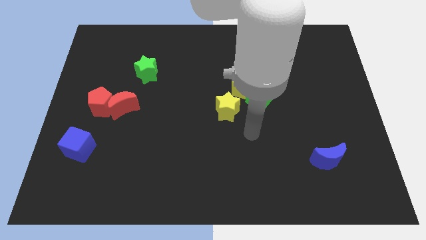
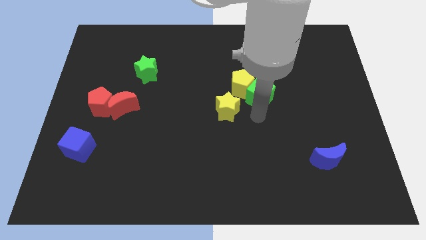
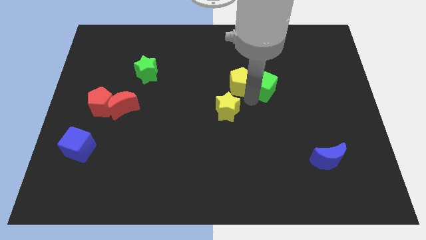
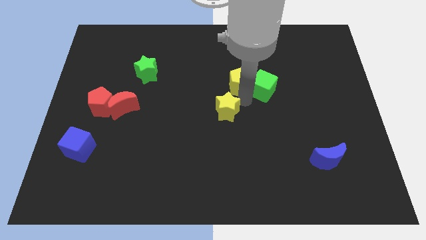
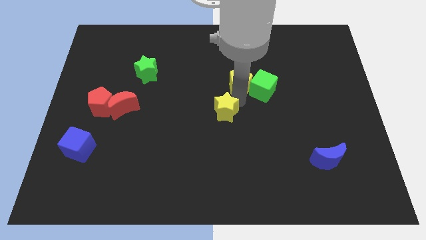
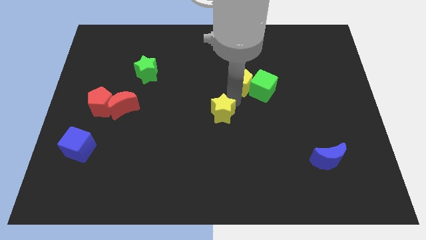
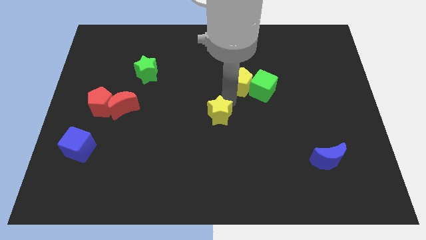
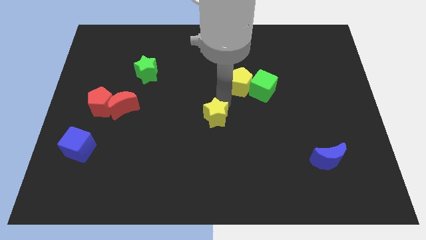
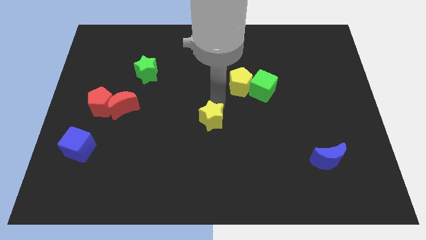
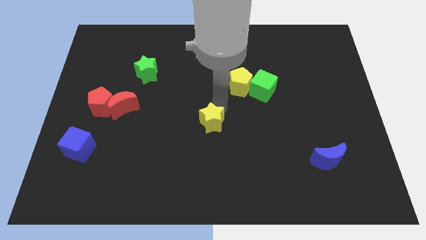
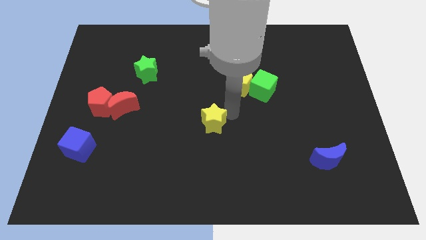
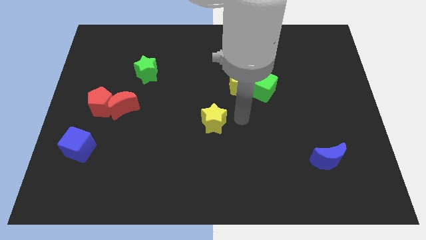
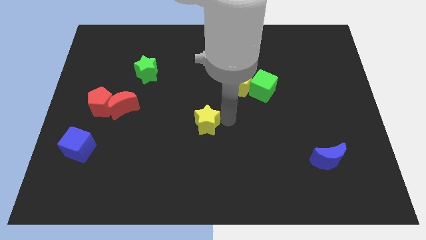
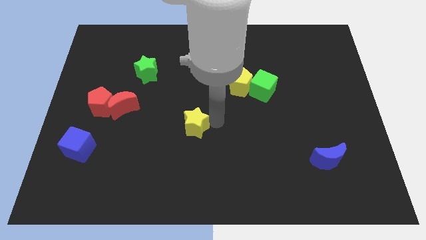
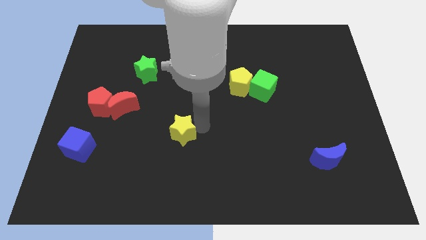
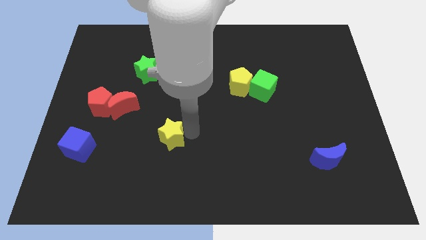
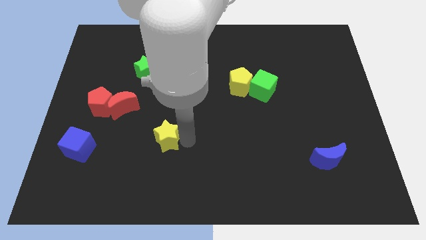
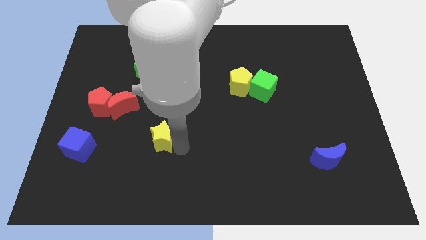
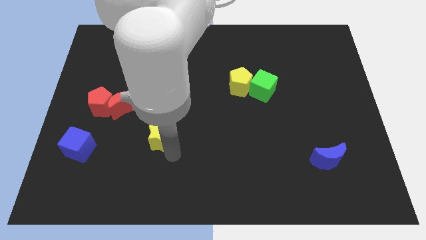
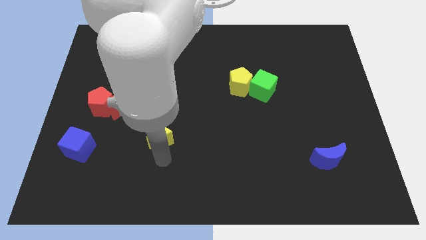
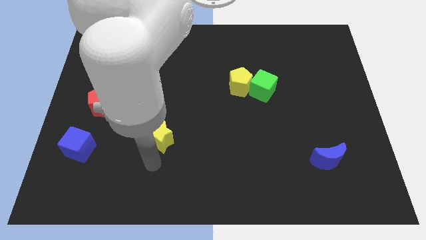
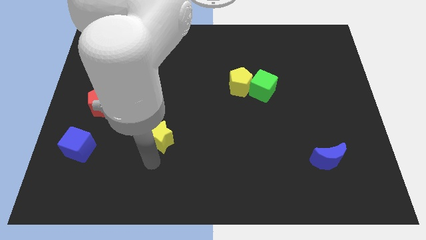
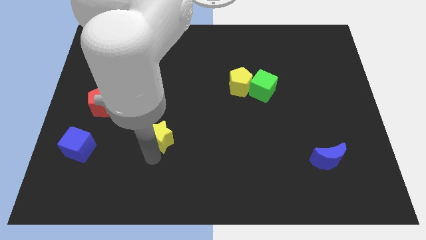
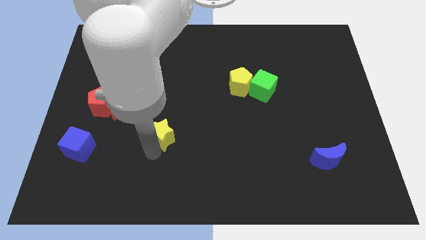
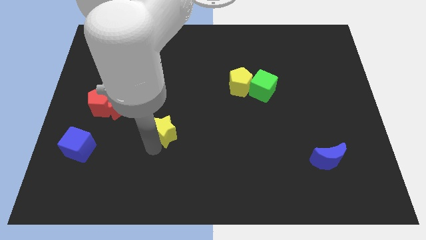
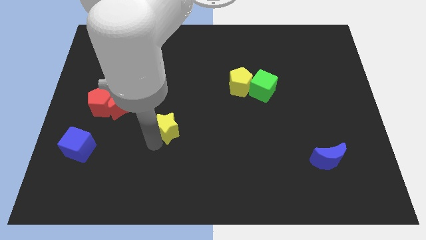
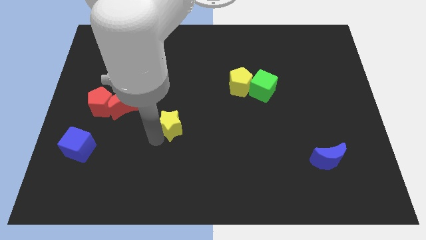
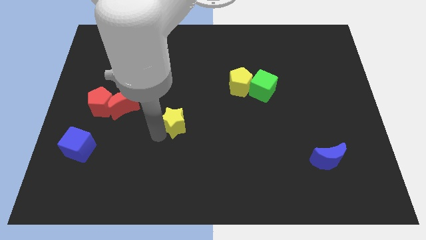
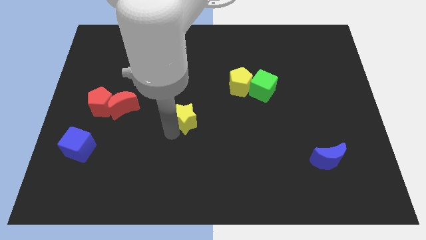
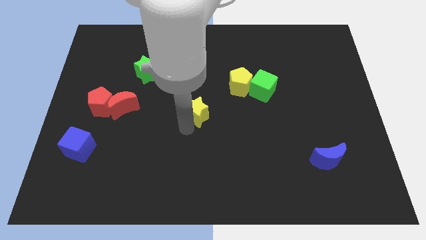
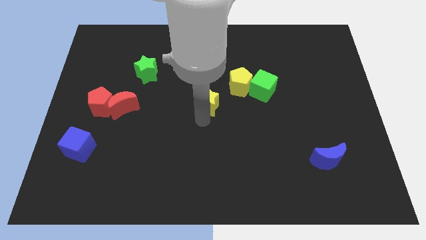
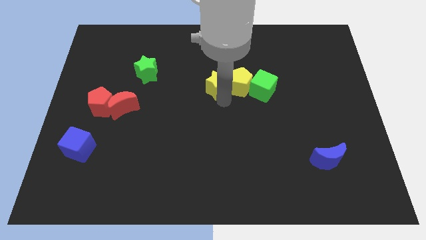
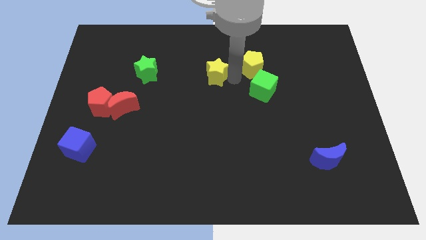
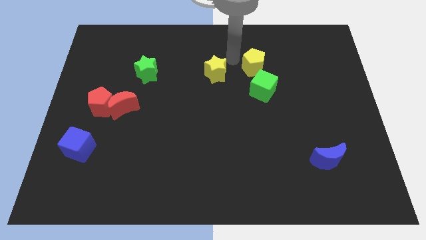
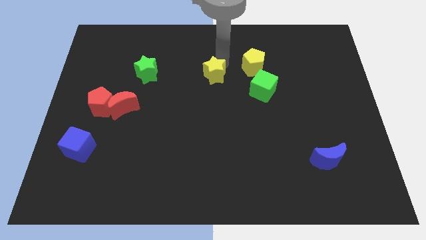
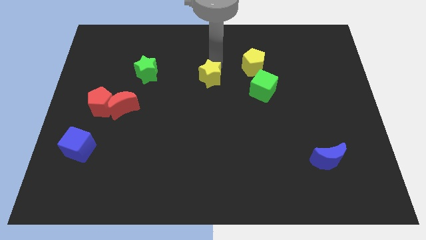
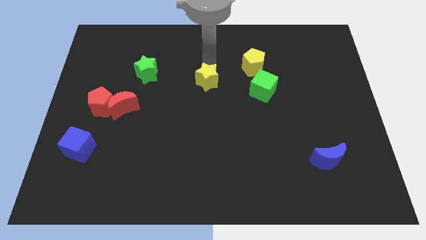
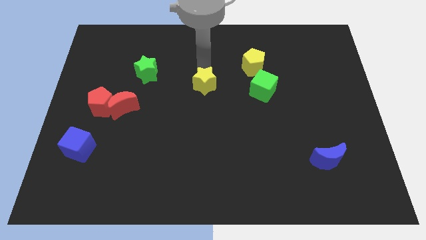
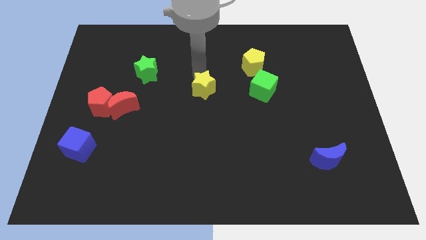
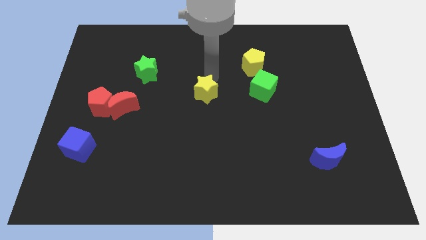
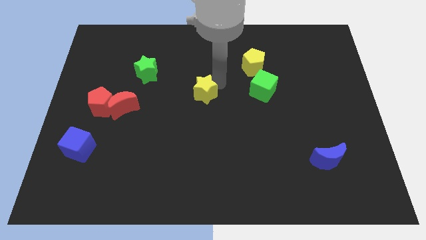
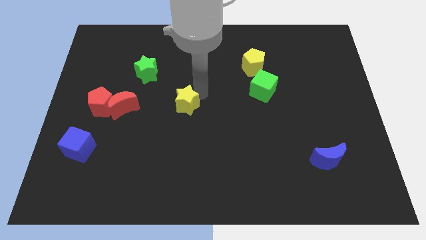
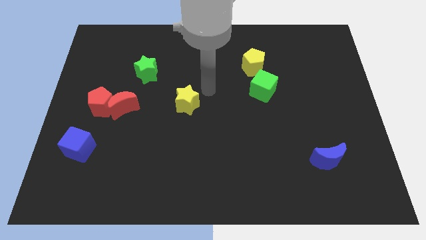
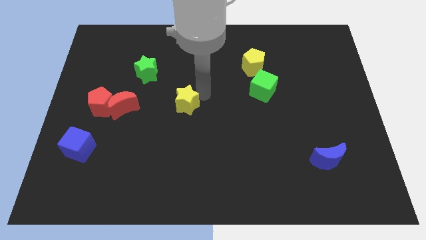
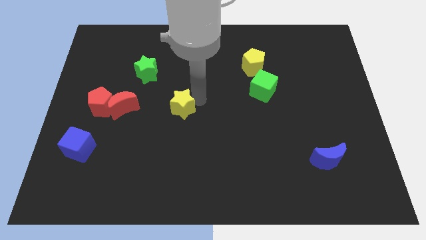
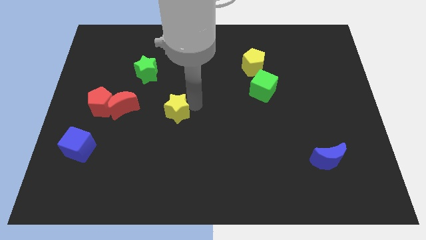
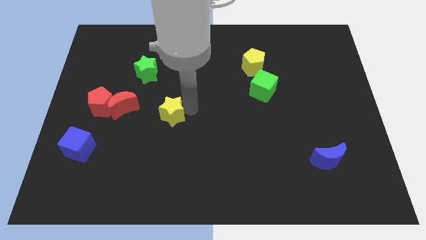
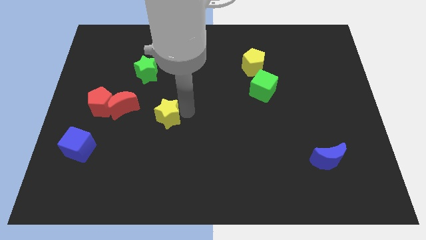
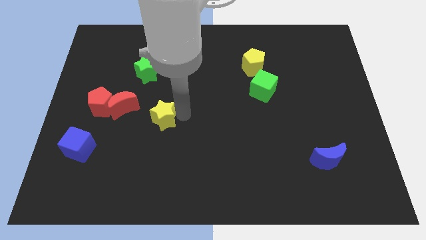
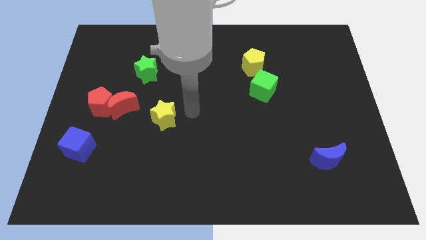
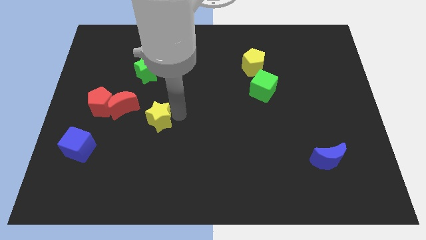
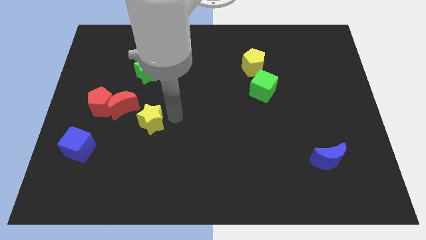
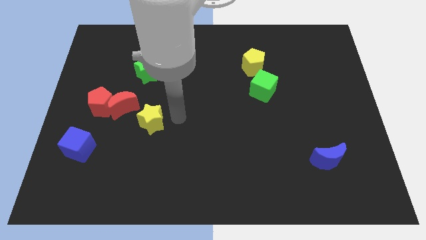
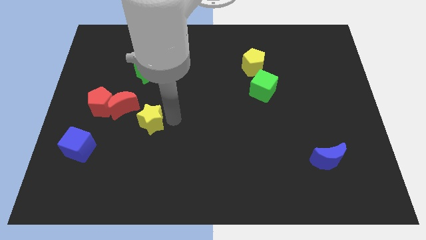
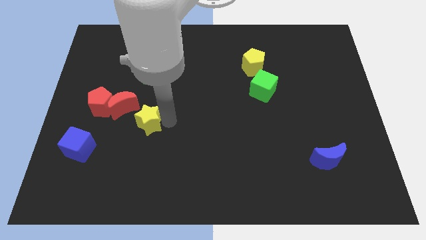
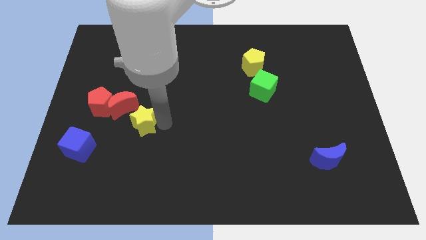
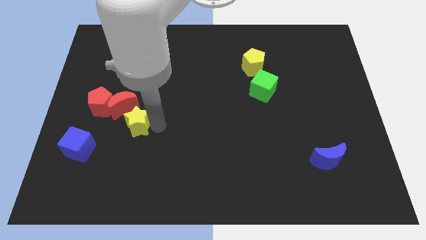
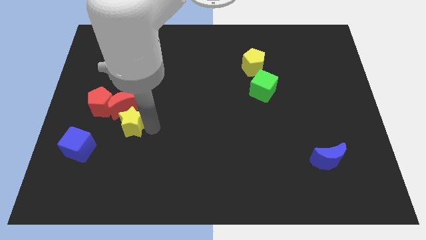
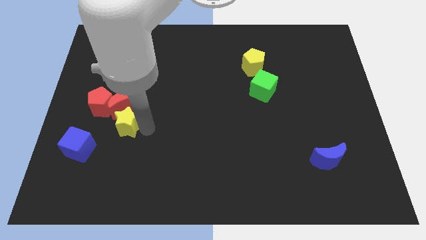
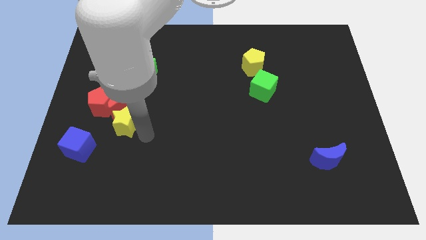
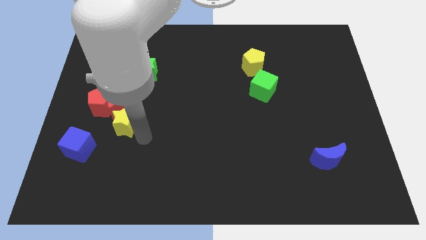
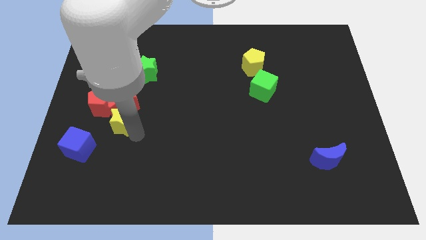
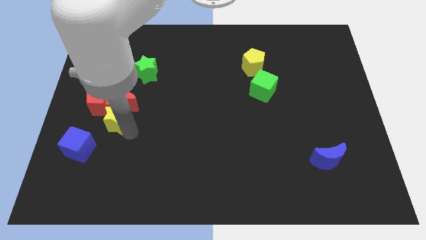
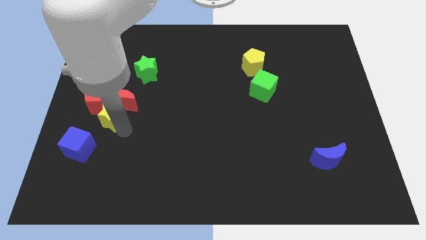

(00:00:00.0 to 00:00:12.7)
push the yellow star close to the red pentagon

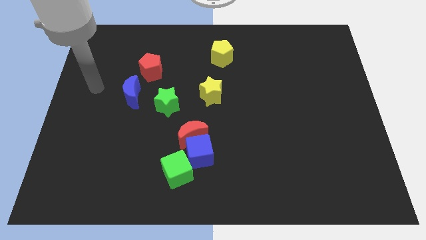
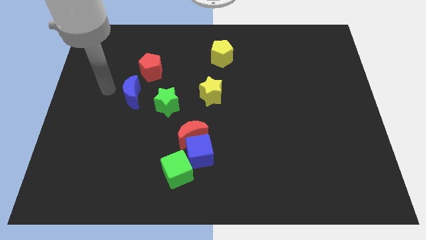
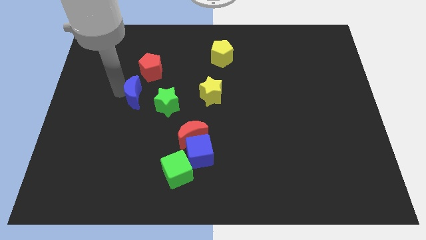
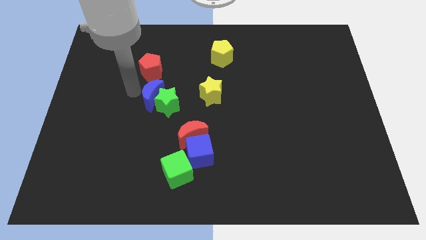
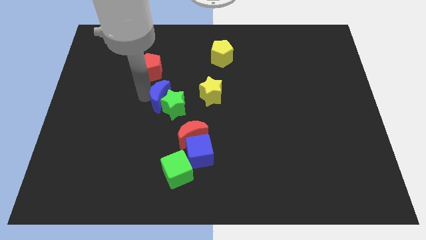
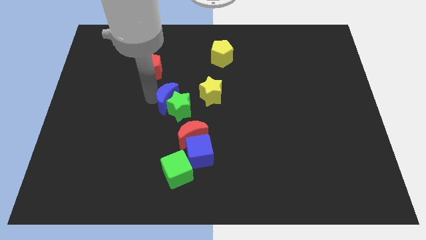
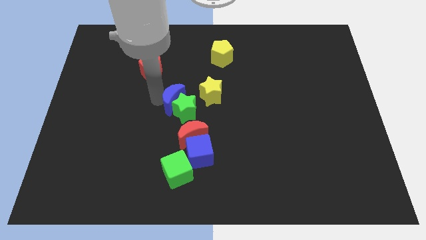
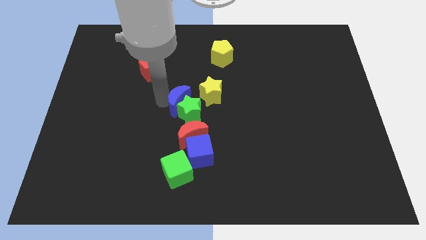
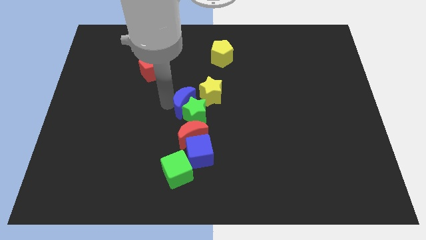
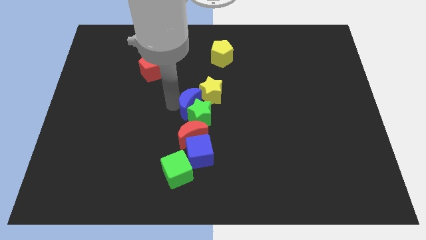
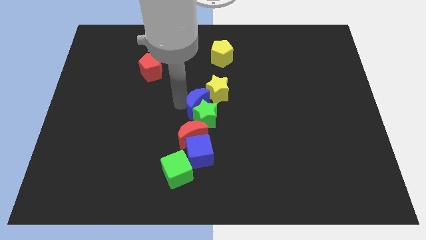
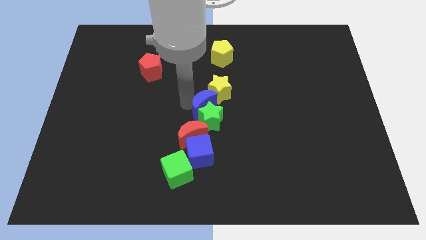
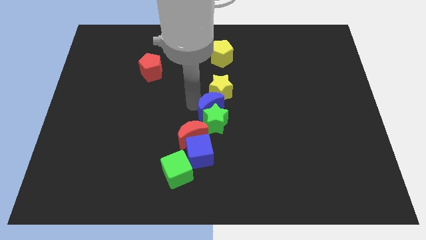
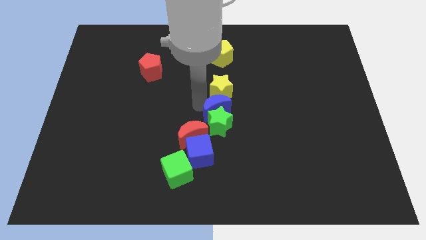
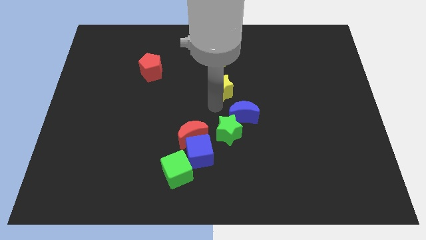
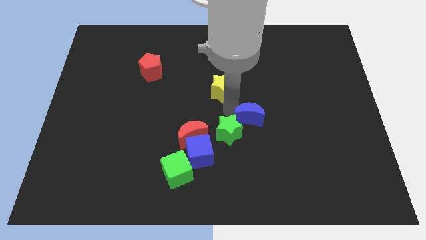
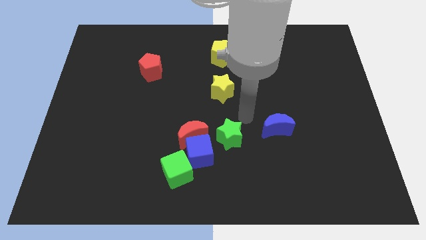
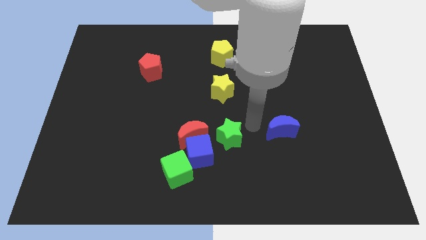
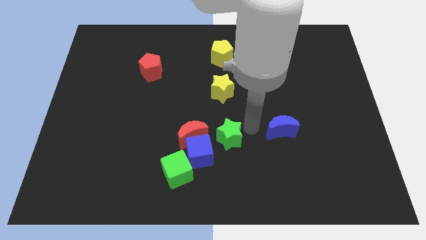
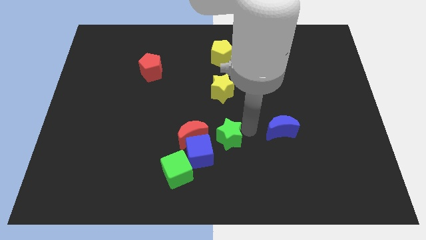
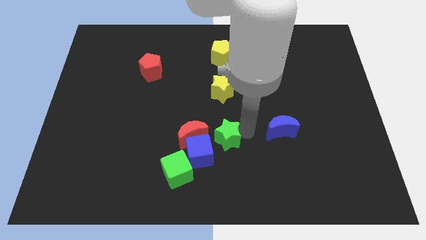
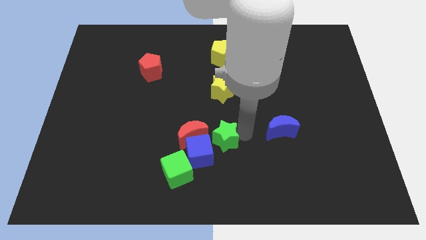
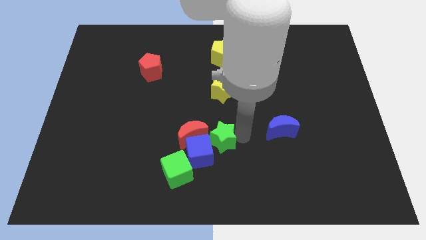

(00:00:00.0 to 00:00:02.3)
slide the green star to the blue cube
